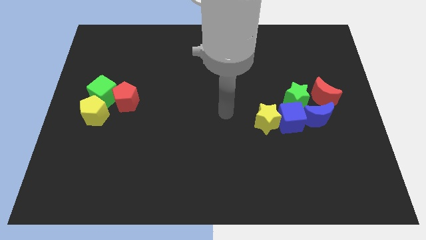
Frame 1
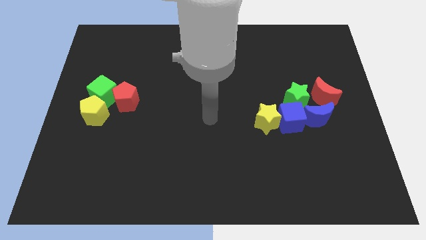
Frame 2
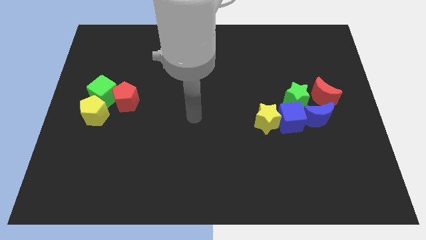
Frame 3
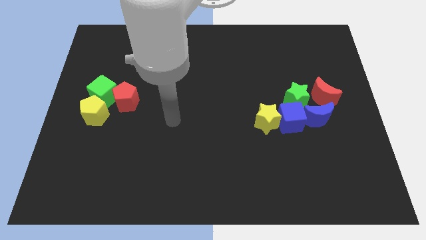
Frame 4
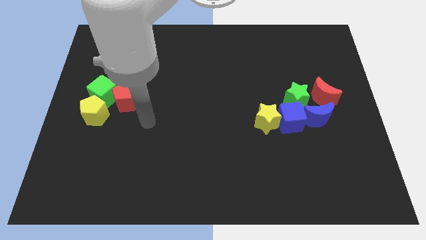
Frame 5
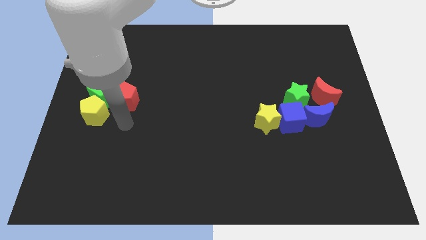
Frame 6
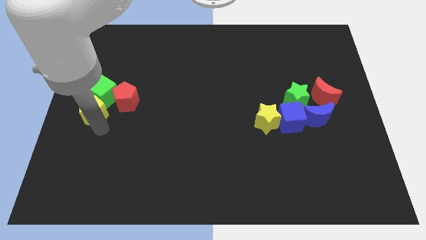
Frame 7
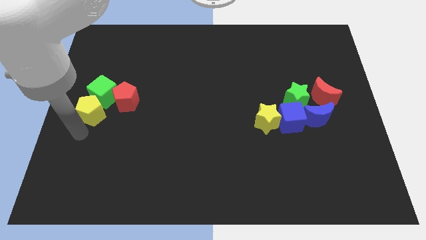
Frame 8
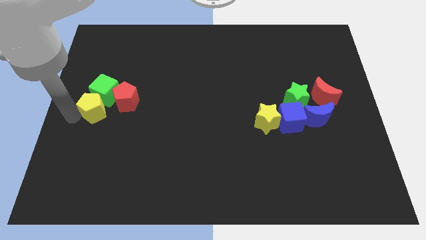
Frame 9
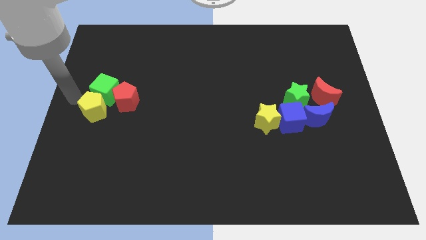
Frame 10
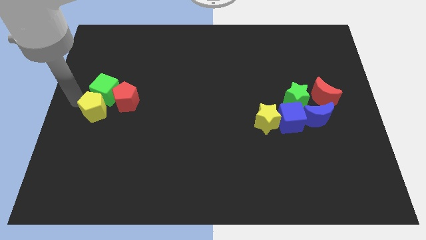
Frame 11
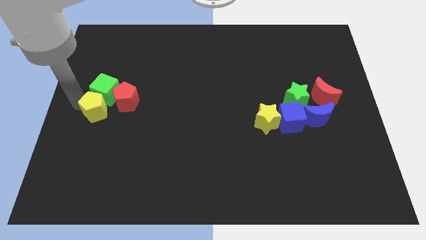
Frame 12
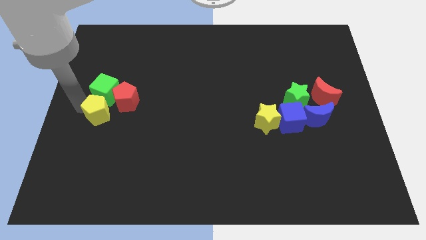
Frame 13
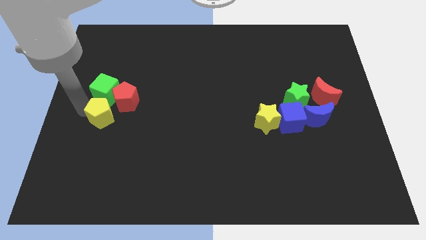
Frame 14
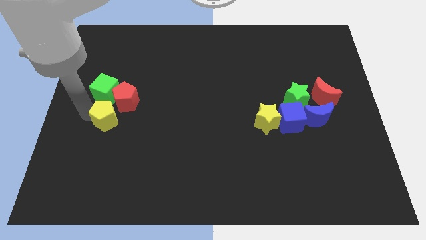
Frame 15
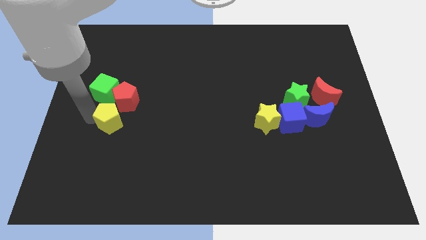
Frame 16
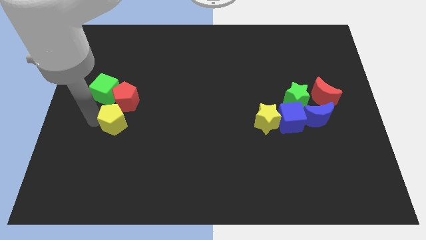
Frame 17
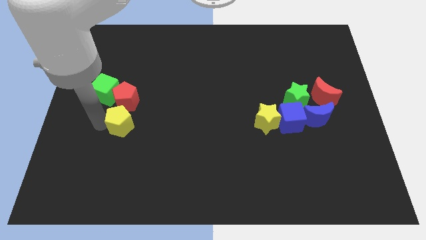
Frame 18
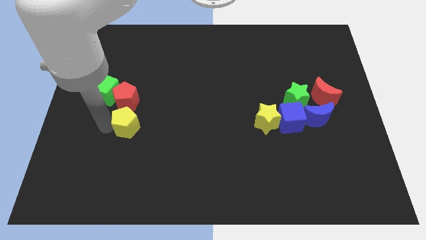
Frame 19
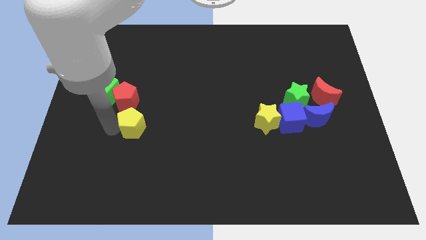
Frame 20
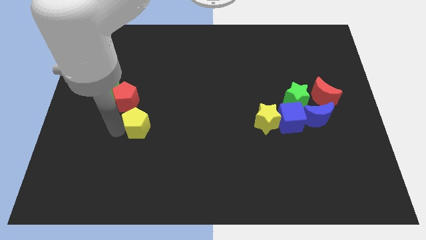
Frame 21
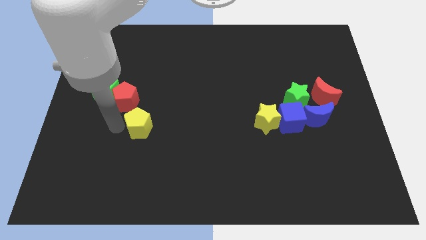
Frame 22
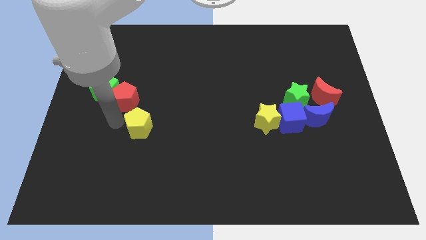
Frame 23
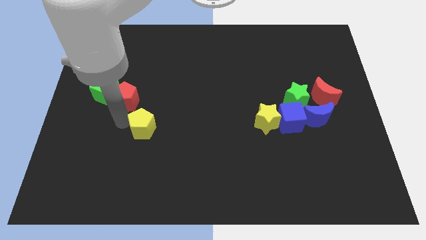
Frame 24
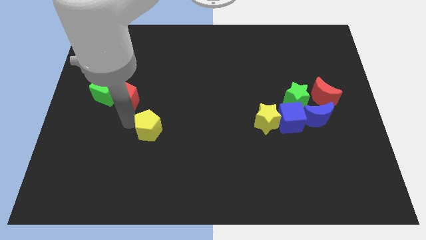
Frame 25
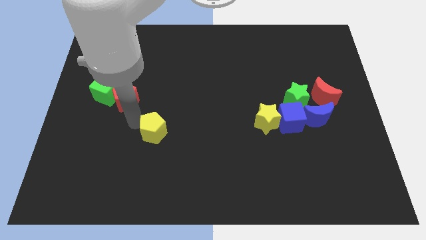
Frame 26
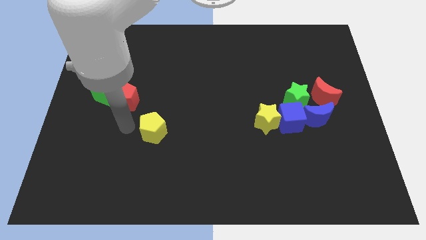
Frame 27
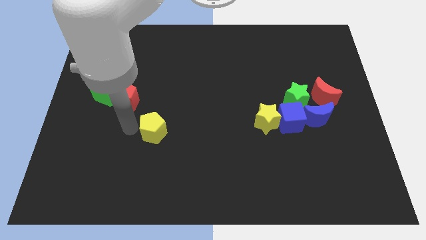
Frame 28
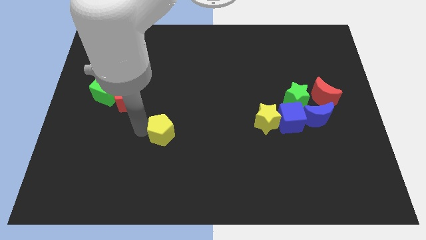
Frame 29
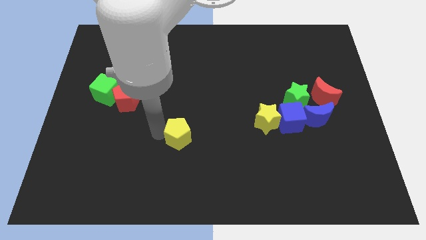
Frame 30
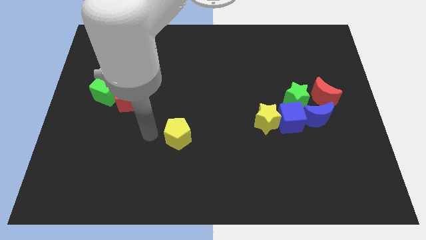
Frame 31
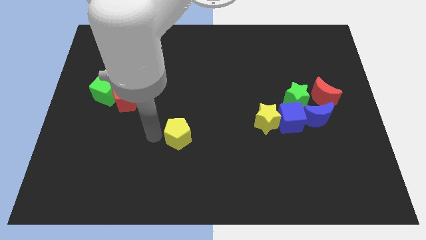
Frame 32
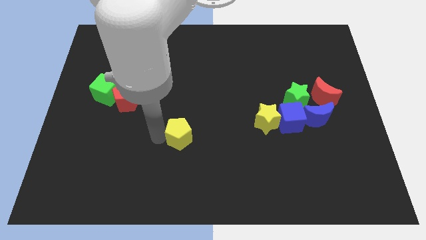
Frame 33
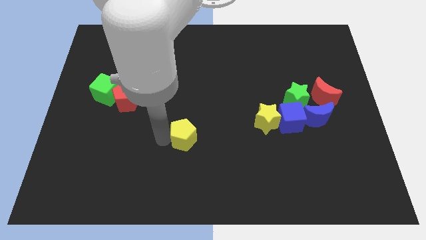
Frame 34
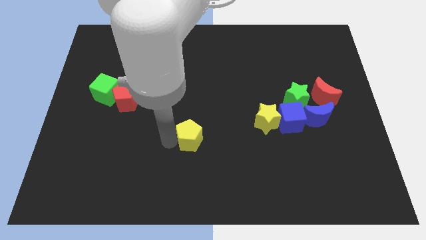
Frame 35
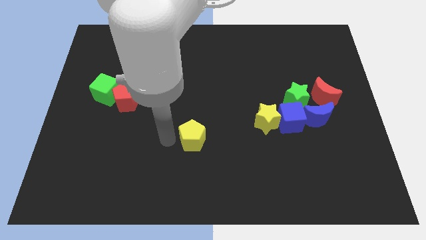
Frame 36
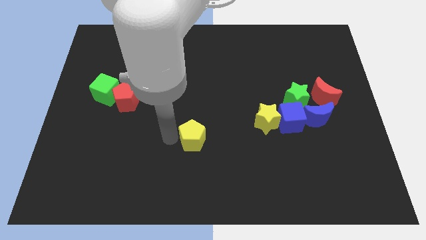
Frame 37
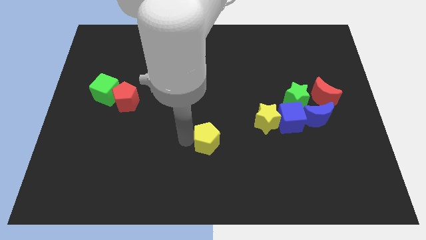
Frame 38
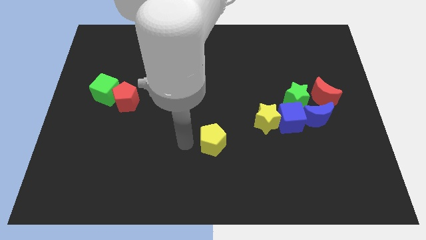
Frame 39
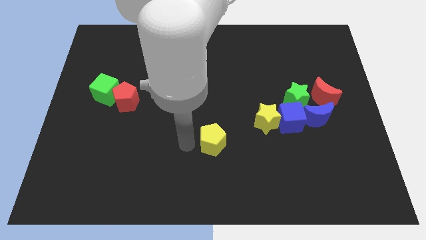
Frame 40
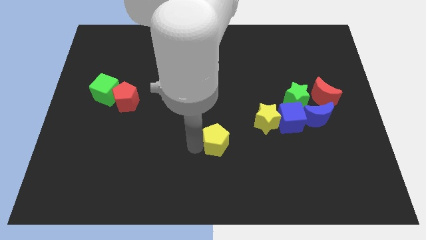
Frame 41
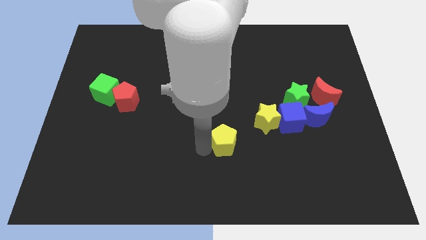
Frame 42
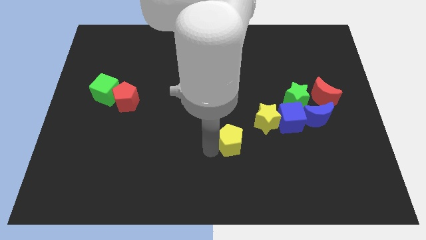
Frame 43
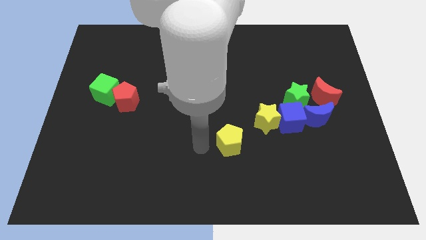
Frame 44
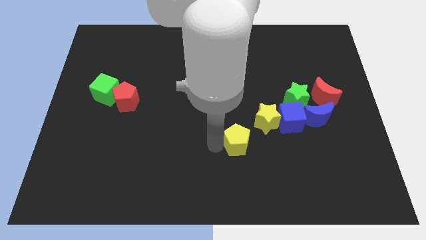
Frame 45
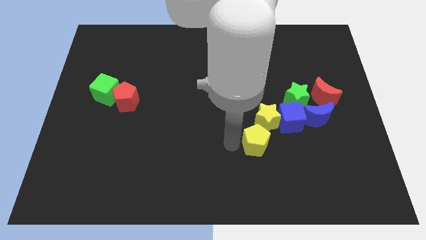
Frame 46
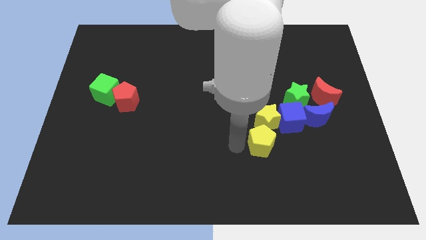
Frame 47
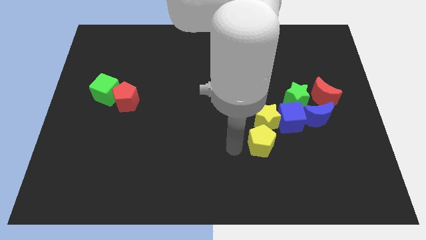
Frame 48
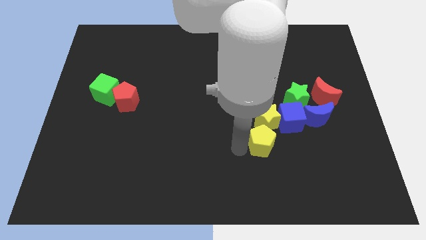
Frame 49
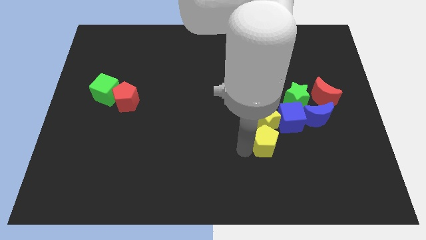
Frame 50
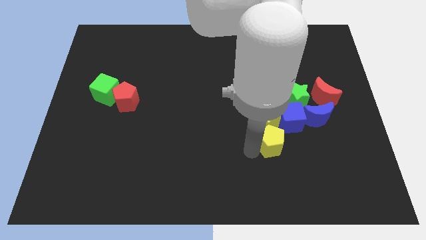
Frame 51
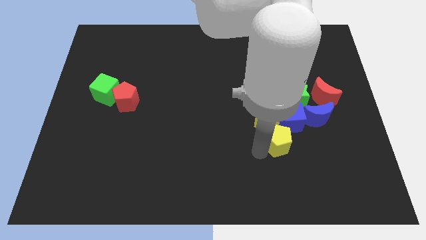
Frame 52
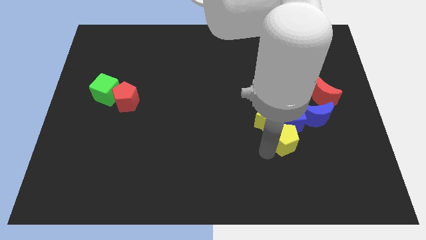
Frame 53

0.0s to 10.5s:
slide the yellow pentagon towards the blue cube

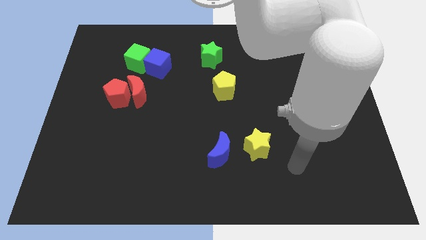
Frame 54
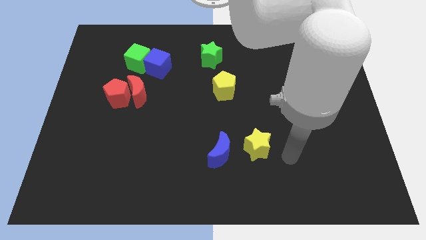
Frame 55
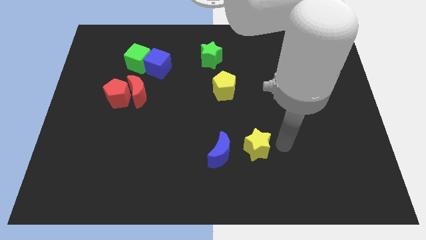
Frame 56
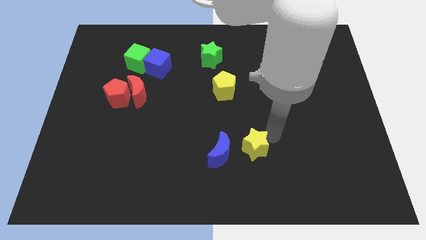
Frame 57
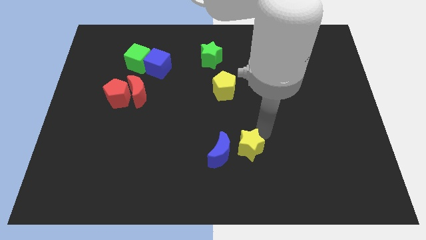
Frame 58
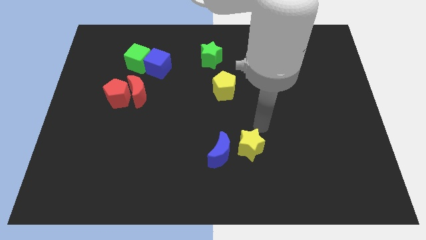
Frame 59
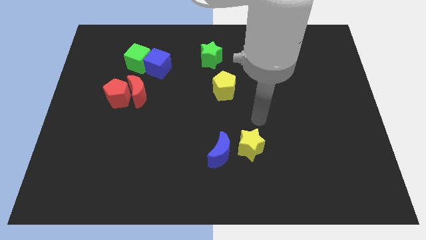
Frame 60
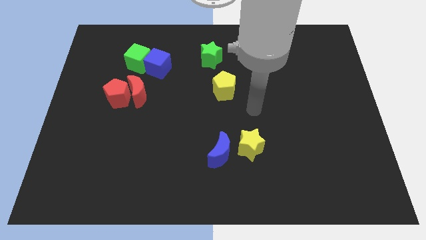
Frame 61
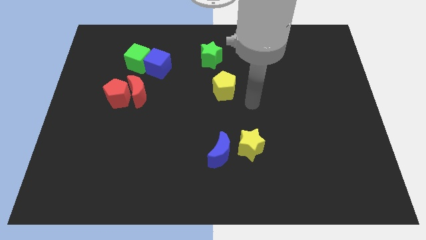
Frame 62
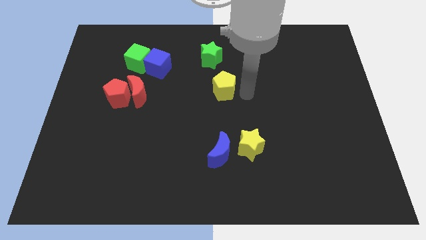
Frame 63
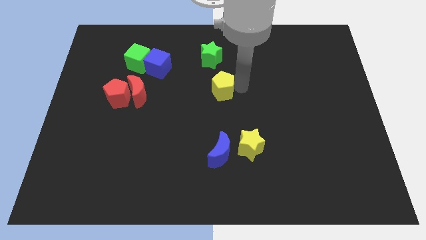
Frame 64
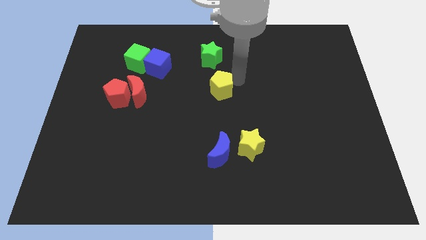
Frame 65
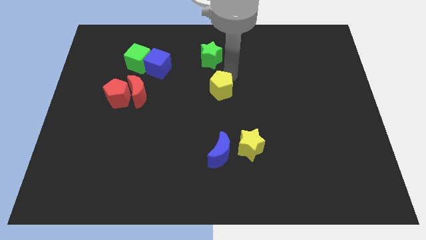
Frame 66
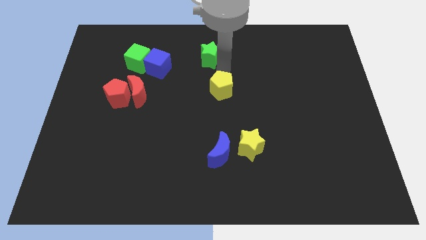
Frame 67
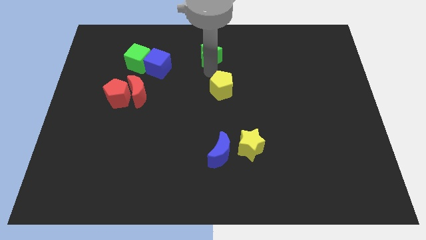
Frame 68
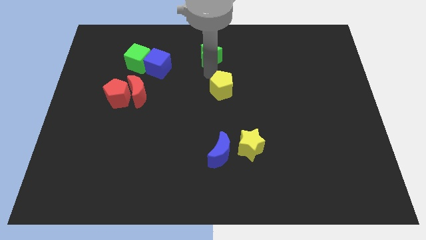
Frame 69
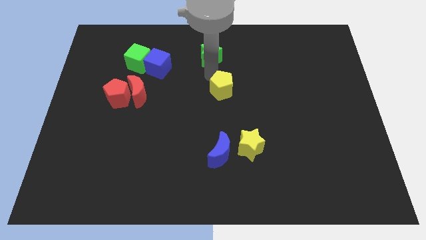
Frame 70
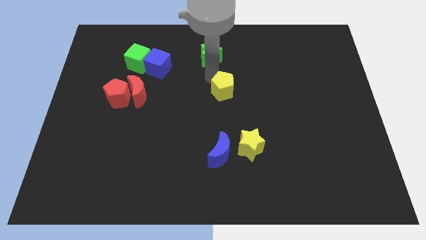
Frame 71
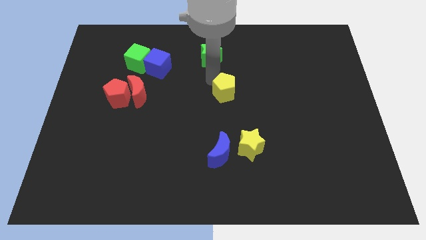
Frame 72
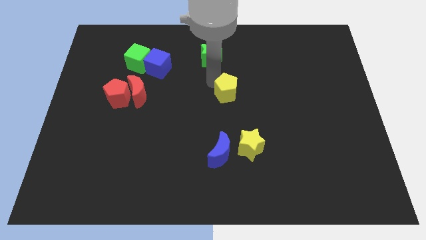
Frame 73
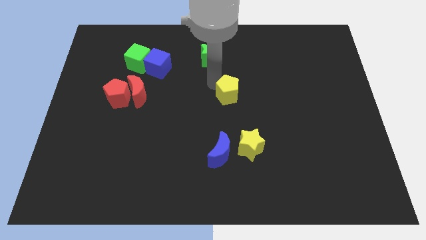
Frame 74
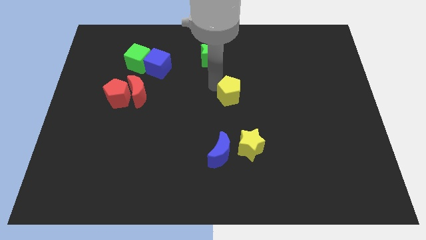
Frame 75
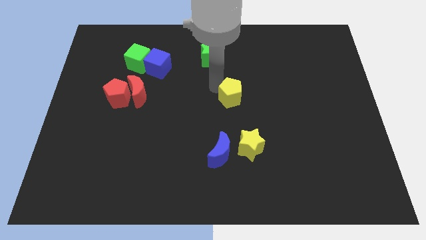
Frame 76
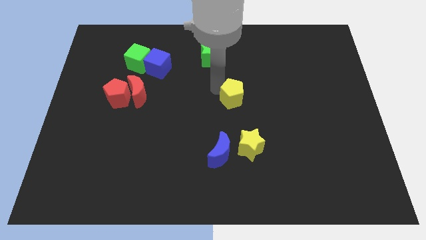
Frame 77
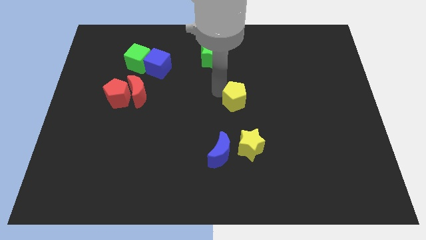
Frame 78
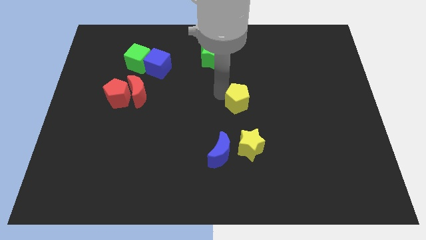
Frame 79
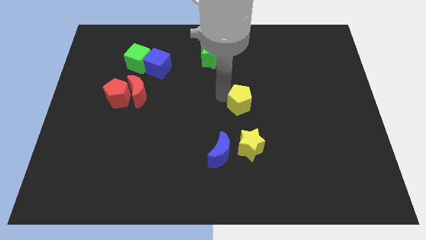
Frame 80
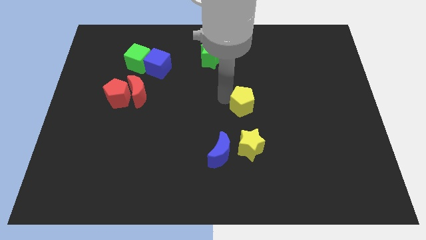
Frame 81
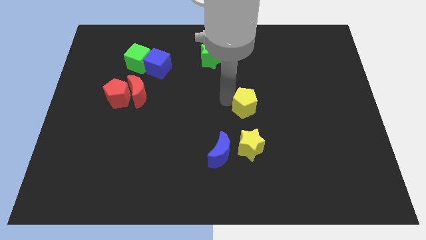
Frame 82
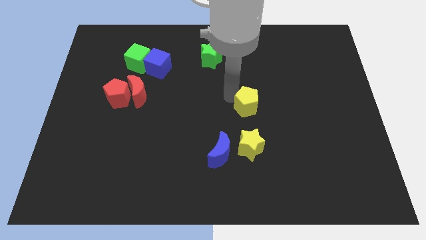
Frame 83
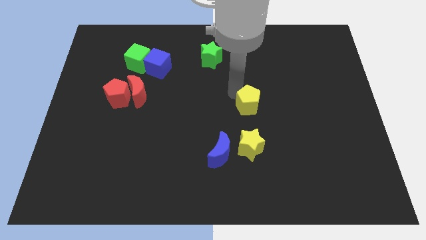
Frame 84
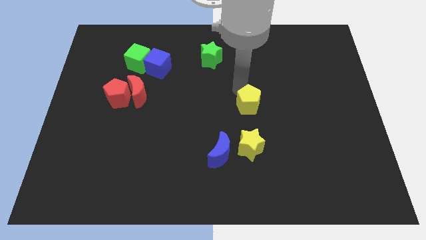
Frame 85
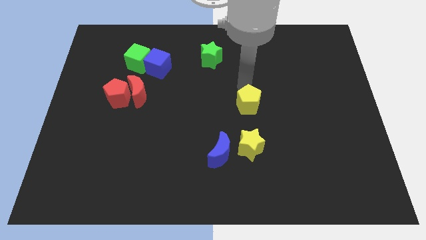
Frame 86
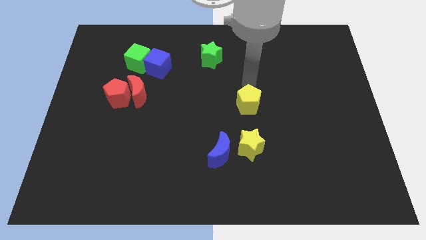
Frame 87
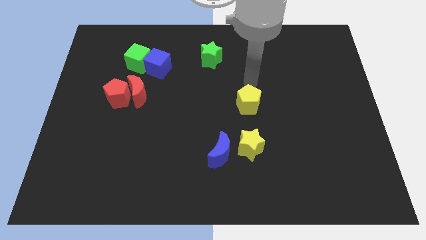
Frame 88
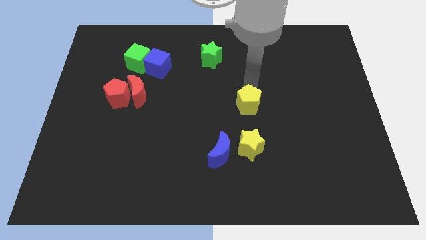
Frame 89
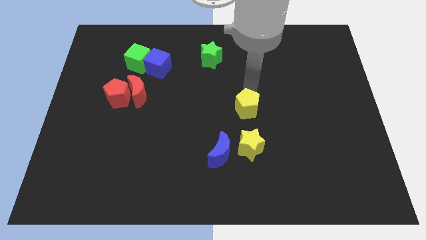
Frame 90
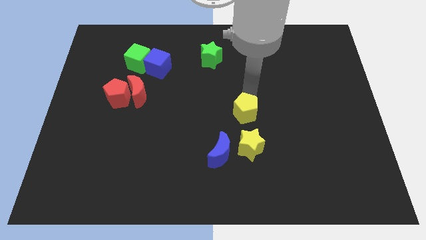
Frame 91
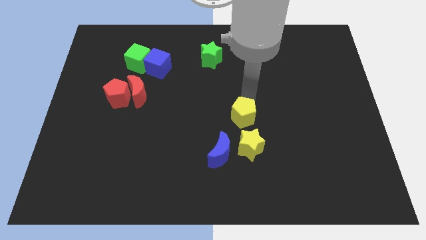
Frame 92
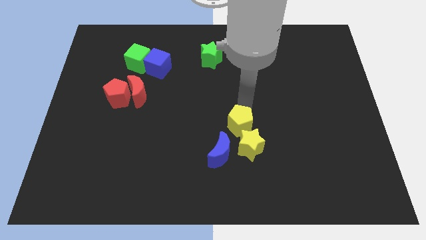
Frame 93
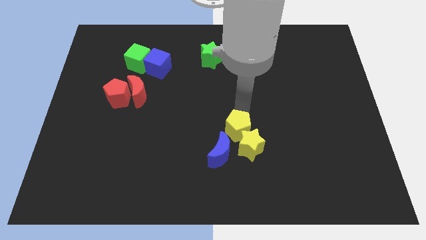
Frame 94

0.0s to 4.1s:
push the yellow pentagon close to the yellow star
